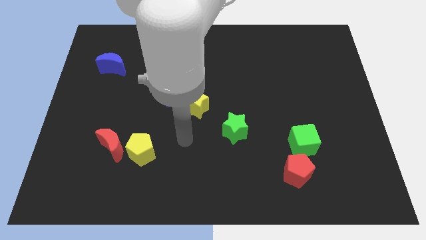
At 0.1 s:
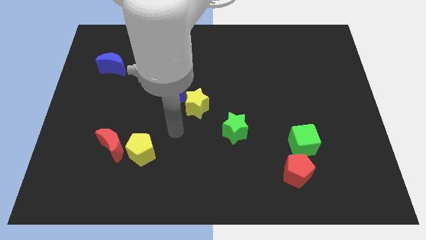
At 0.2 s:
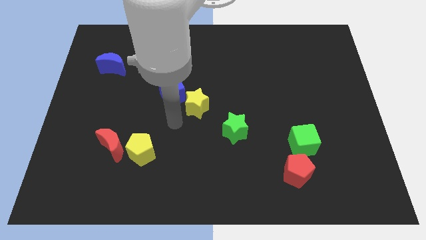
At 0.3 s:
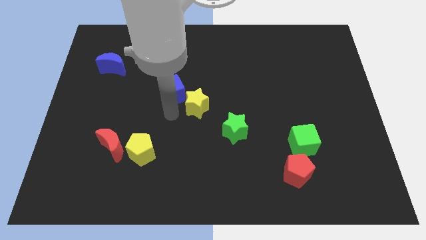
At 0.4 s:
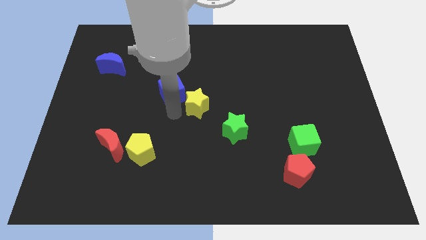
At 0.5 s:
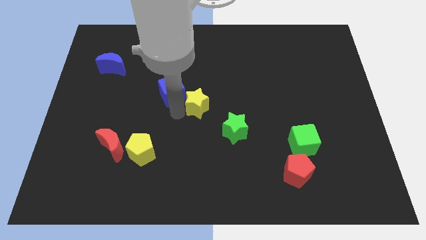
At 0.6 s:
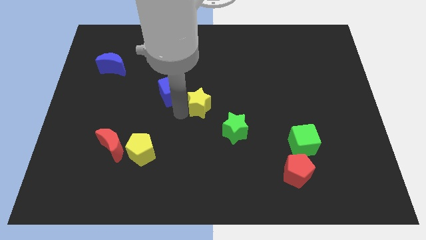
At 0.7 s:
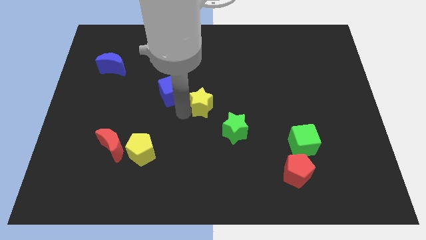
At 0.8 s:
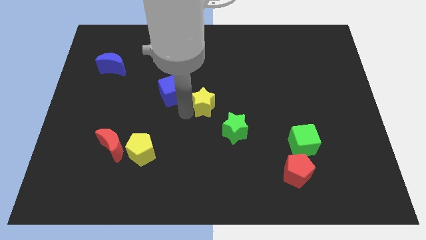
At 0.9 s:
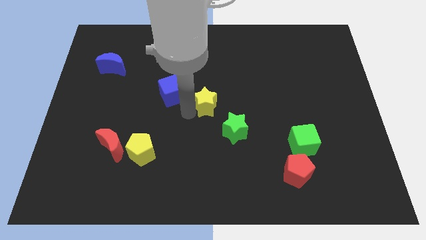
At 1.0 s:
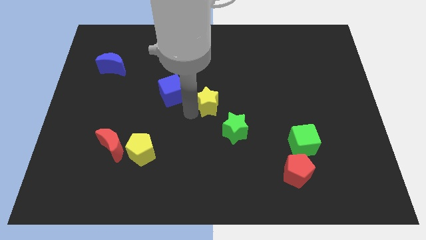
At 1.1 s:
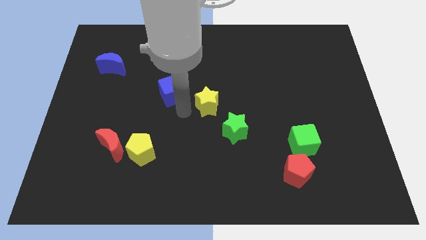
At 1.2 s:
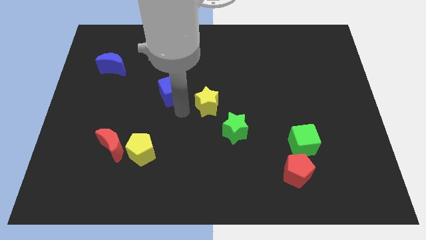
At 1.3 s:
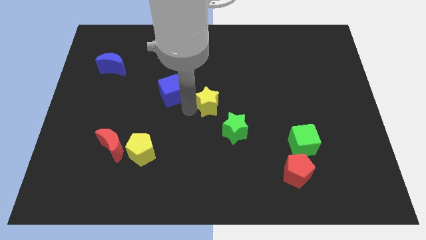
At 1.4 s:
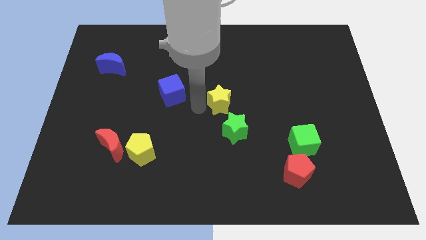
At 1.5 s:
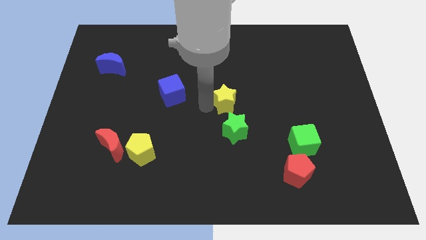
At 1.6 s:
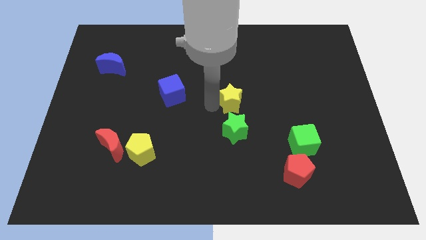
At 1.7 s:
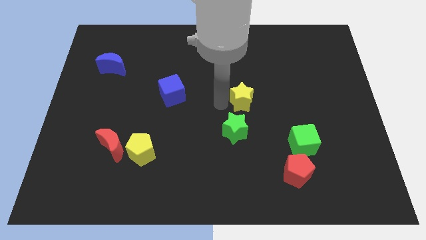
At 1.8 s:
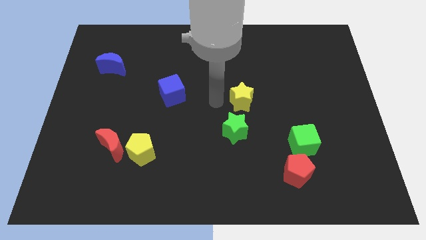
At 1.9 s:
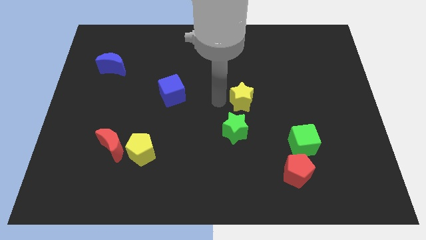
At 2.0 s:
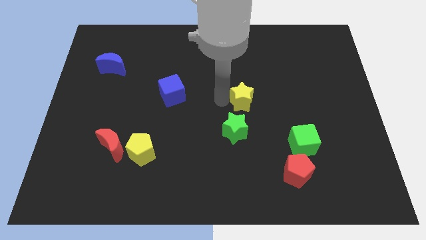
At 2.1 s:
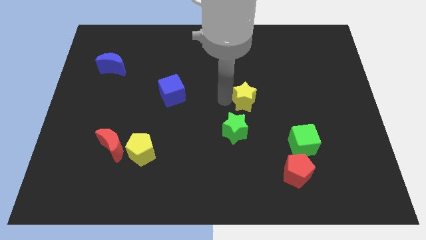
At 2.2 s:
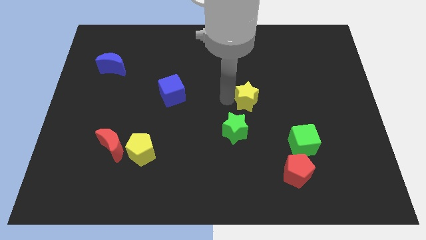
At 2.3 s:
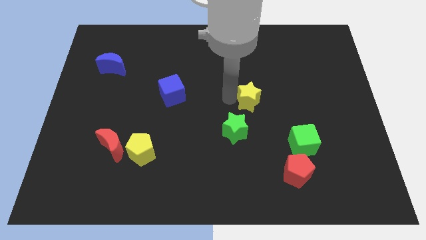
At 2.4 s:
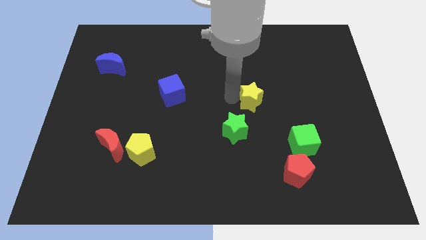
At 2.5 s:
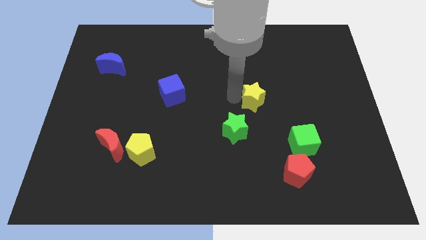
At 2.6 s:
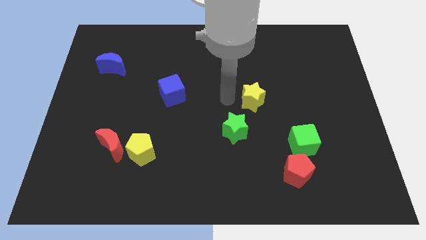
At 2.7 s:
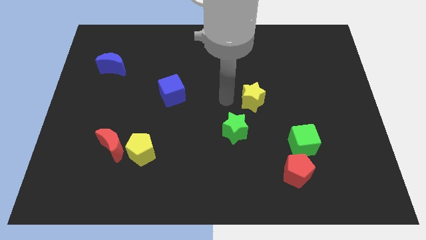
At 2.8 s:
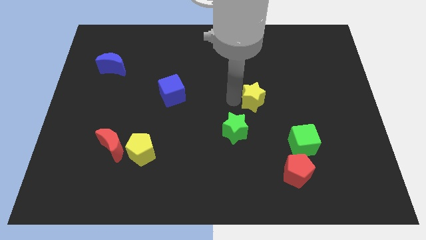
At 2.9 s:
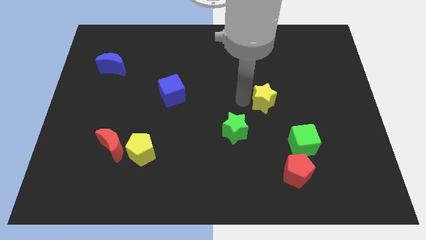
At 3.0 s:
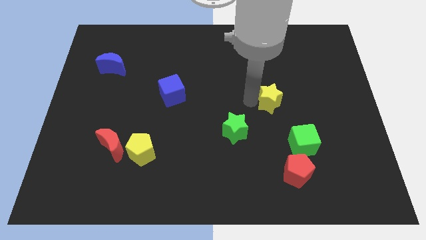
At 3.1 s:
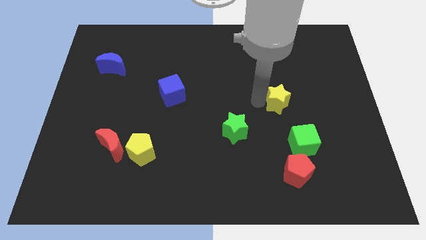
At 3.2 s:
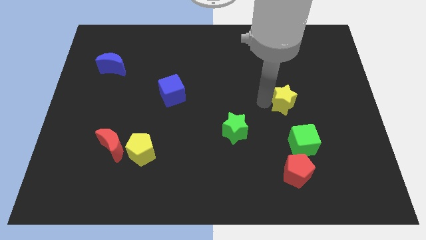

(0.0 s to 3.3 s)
slide the yellow star to the right

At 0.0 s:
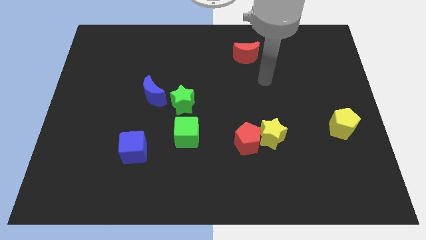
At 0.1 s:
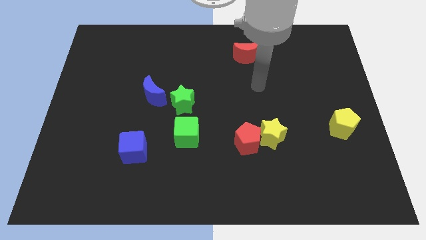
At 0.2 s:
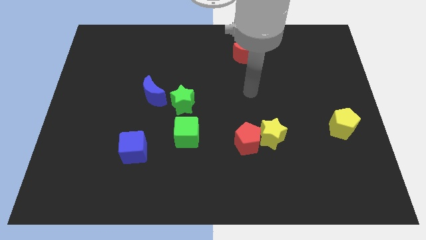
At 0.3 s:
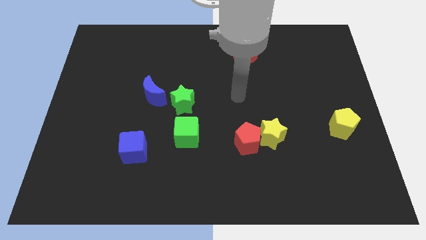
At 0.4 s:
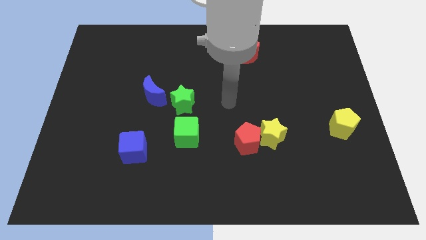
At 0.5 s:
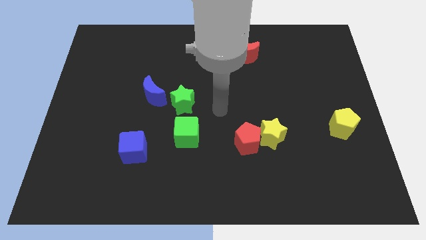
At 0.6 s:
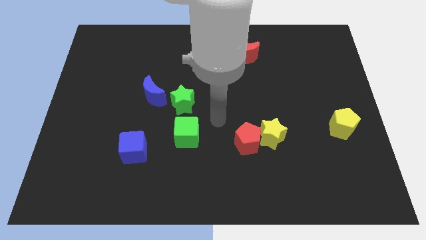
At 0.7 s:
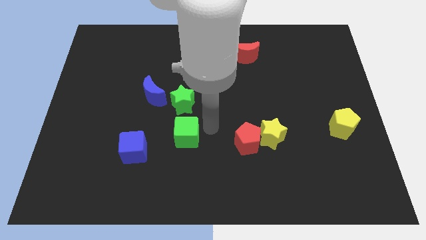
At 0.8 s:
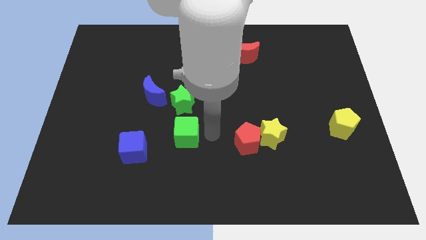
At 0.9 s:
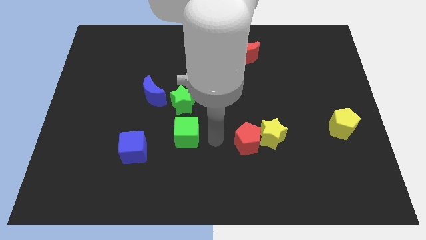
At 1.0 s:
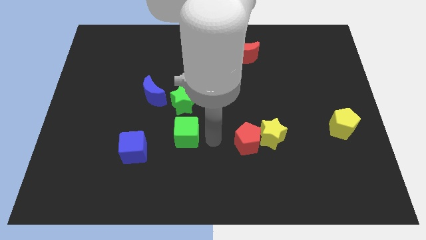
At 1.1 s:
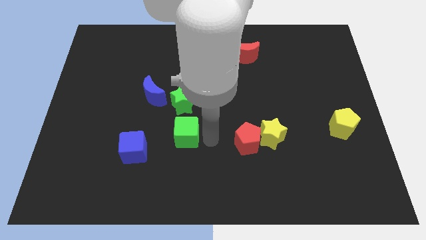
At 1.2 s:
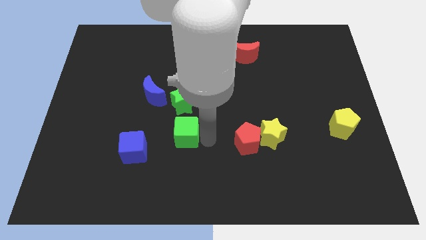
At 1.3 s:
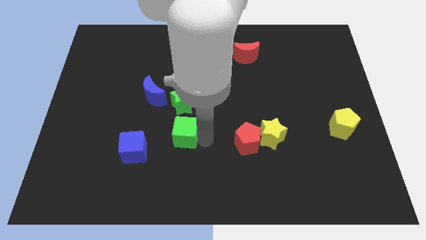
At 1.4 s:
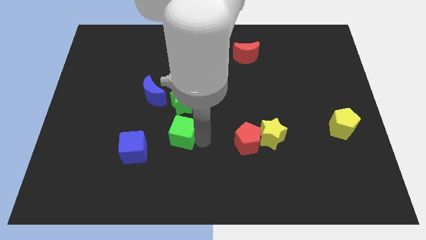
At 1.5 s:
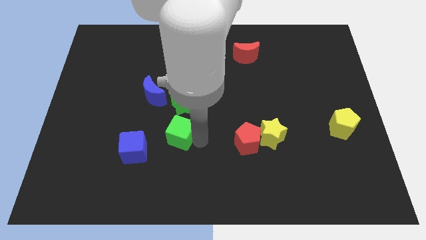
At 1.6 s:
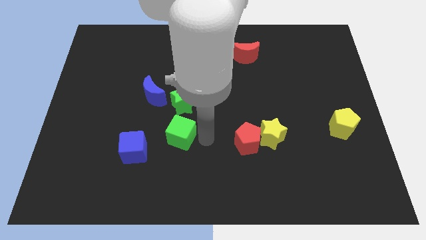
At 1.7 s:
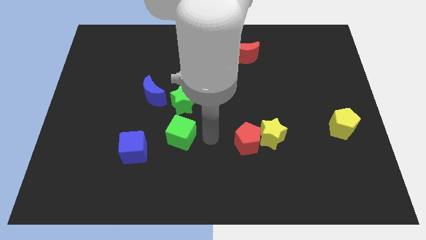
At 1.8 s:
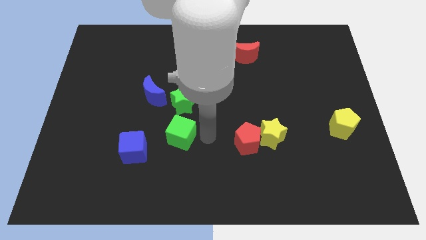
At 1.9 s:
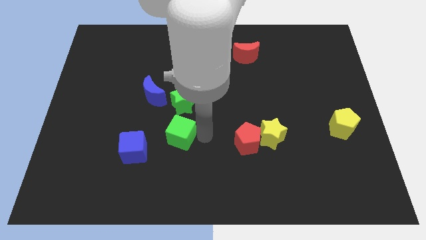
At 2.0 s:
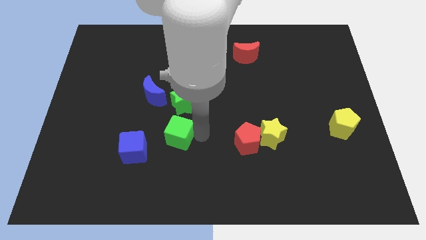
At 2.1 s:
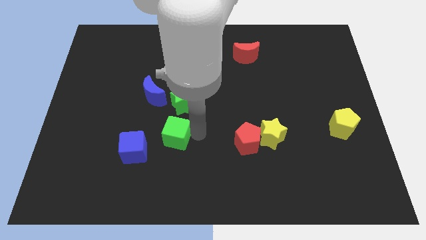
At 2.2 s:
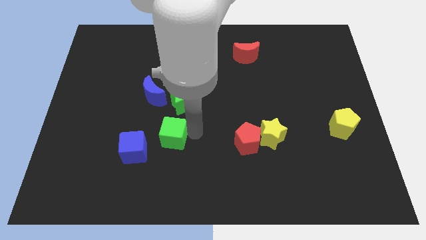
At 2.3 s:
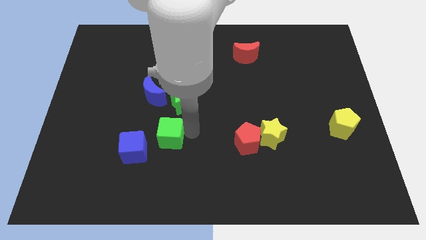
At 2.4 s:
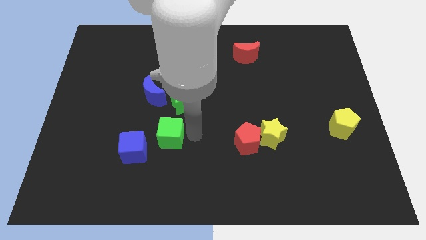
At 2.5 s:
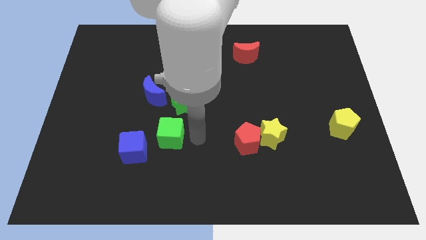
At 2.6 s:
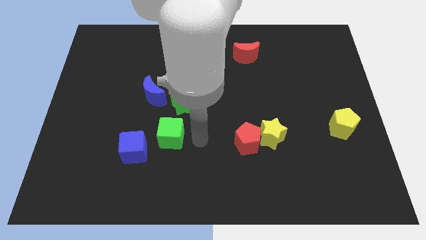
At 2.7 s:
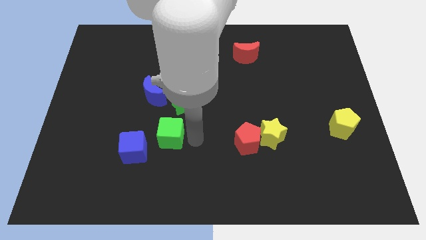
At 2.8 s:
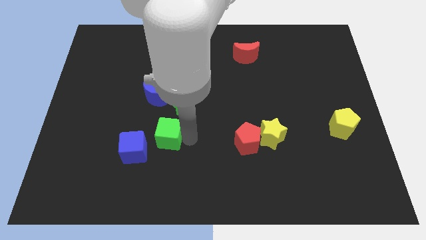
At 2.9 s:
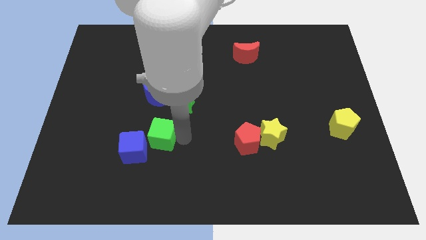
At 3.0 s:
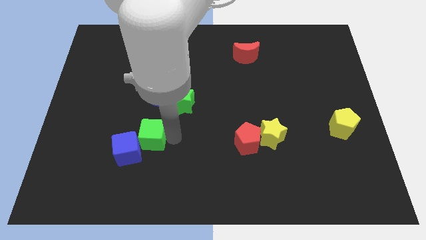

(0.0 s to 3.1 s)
push the green cube left slightly

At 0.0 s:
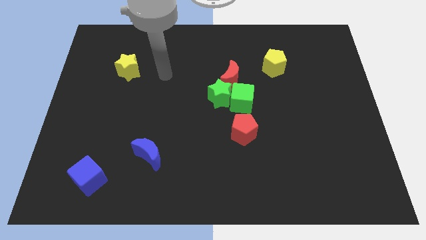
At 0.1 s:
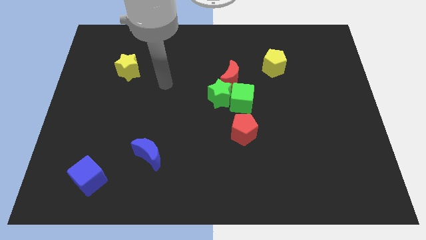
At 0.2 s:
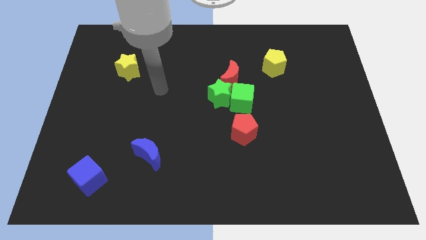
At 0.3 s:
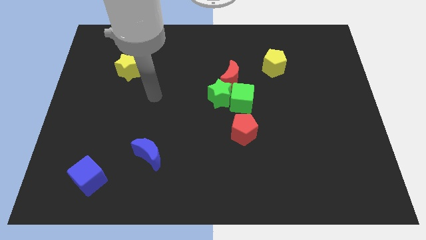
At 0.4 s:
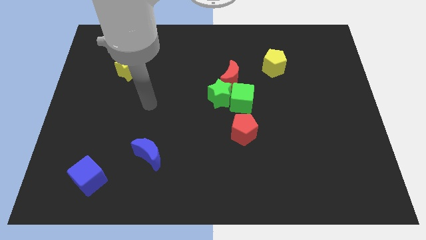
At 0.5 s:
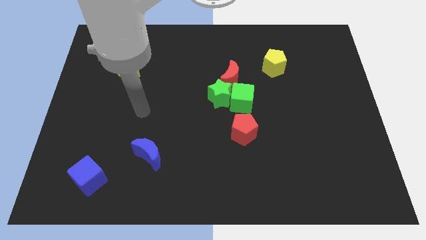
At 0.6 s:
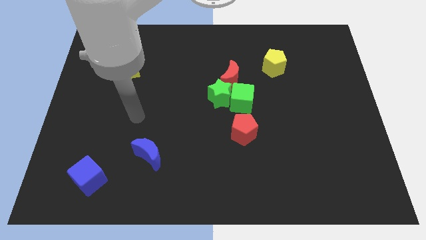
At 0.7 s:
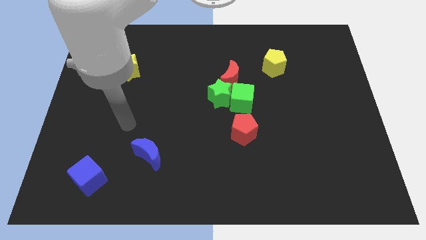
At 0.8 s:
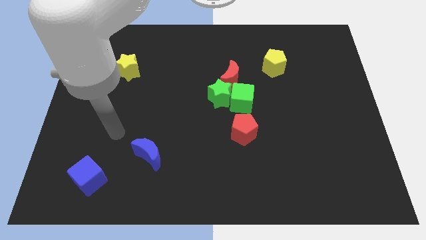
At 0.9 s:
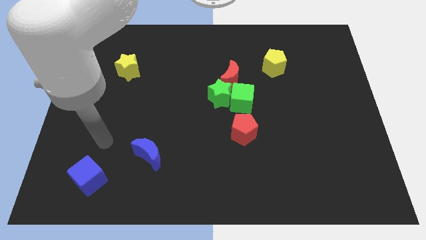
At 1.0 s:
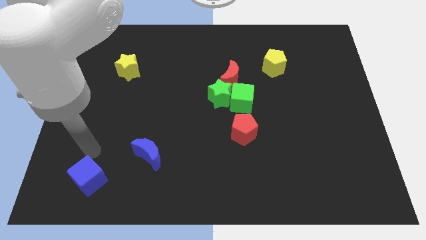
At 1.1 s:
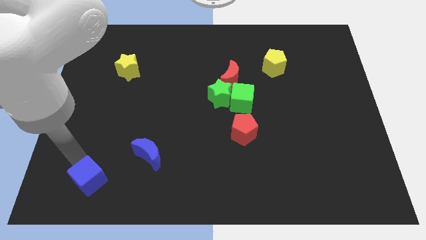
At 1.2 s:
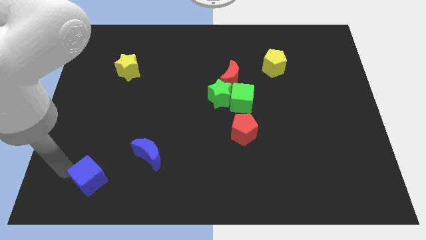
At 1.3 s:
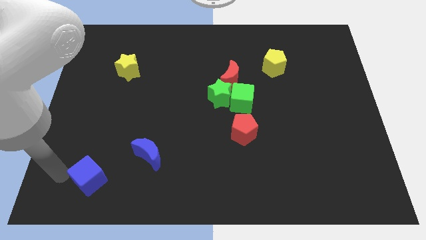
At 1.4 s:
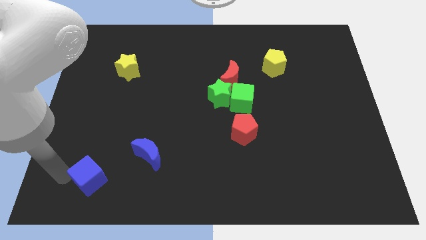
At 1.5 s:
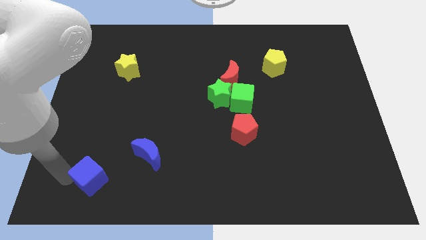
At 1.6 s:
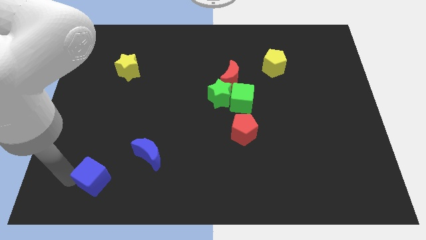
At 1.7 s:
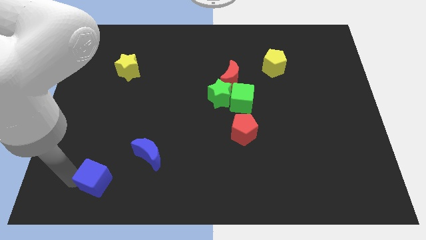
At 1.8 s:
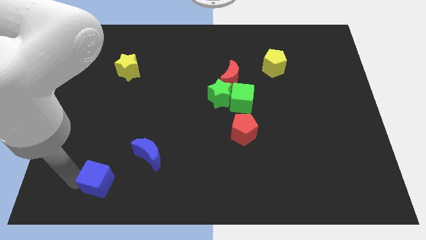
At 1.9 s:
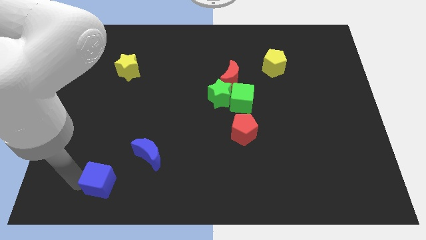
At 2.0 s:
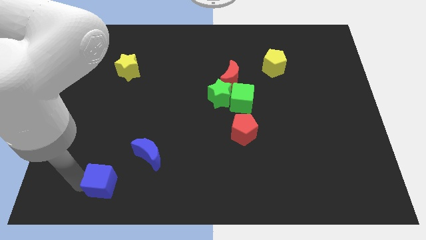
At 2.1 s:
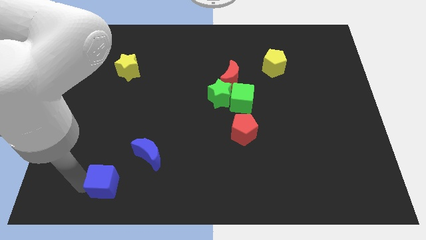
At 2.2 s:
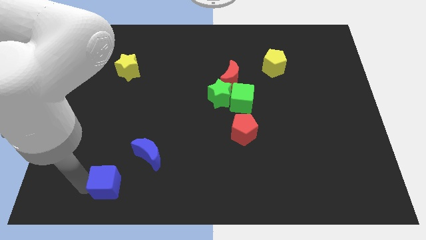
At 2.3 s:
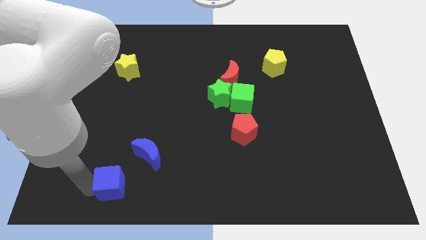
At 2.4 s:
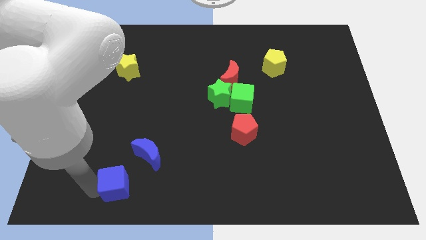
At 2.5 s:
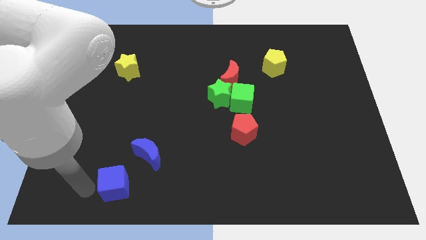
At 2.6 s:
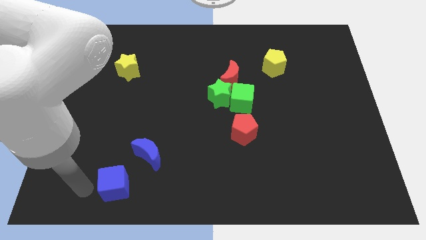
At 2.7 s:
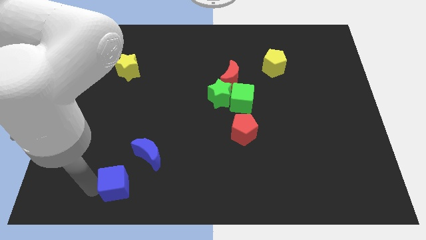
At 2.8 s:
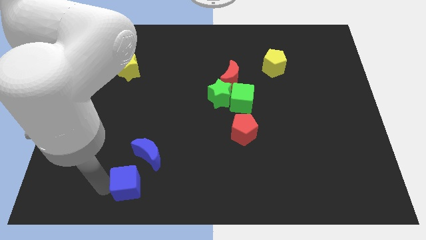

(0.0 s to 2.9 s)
slightly push the blue cube right
